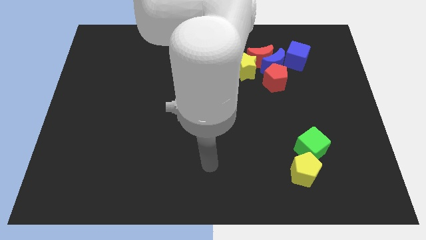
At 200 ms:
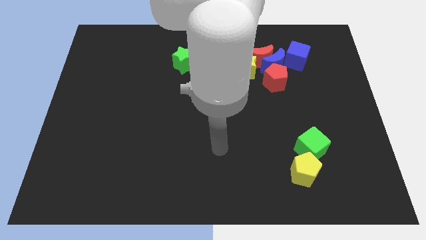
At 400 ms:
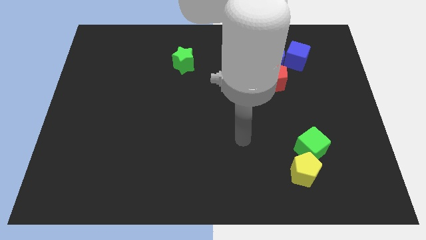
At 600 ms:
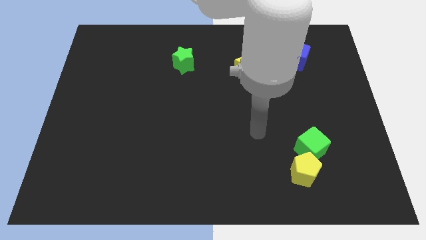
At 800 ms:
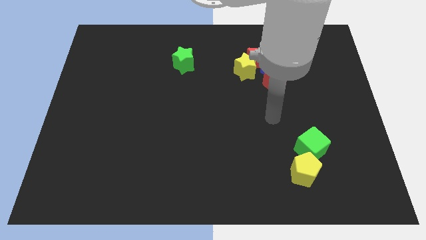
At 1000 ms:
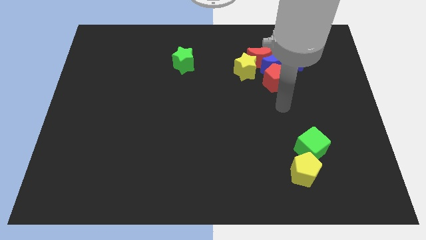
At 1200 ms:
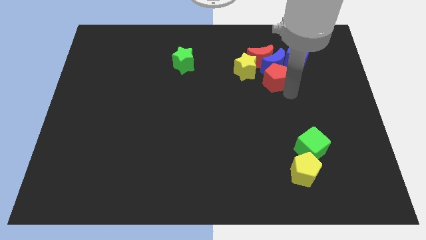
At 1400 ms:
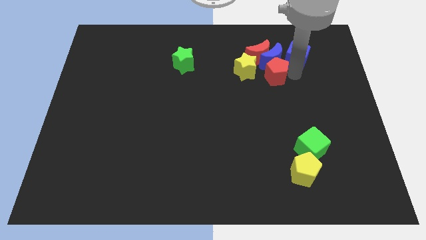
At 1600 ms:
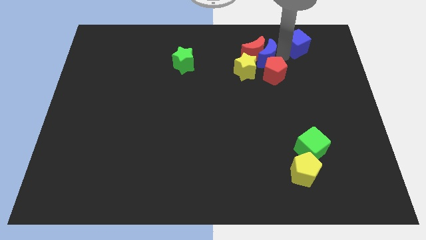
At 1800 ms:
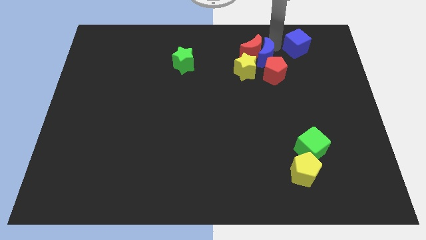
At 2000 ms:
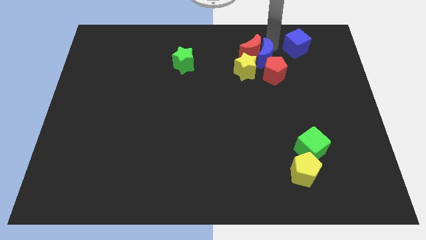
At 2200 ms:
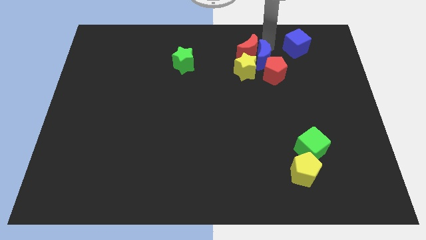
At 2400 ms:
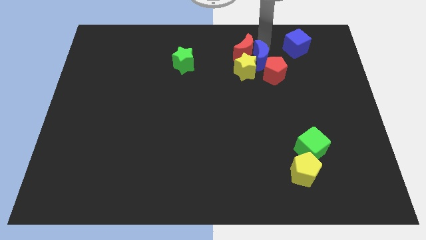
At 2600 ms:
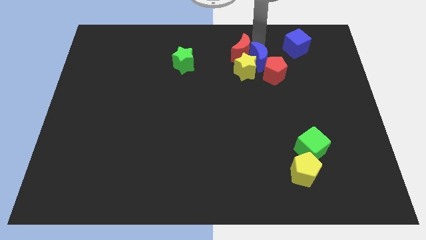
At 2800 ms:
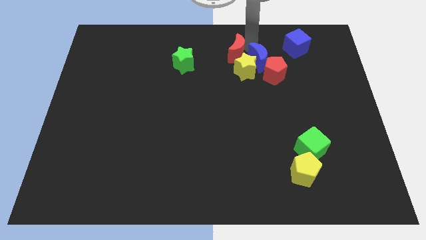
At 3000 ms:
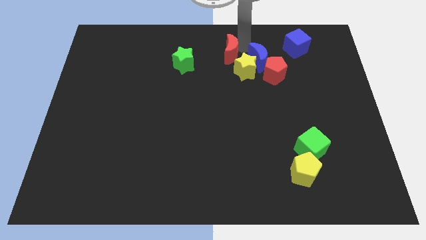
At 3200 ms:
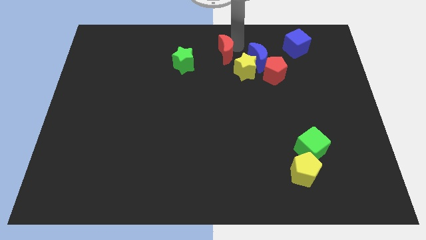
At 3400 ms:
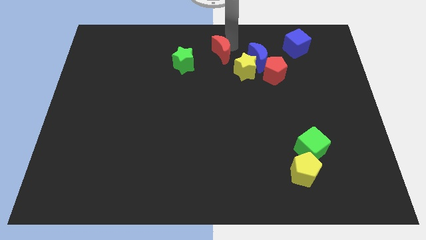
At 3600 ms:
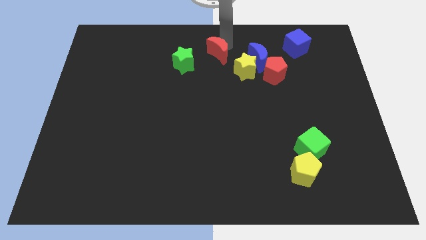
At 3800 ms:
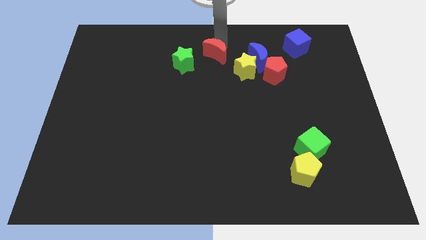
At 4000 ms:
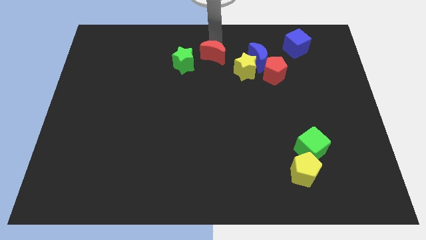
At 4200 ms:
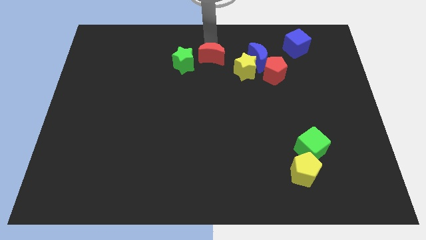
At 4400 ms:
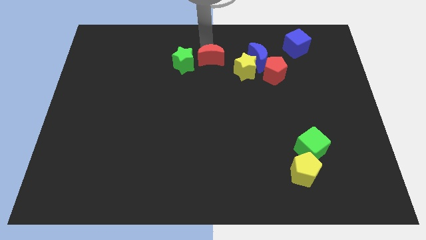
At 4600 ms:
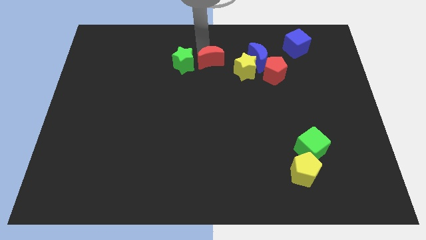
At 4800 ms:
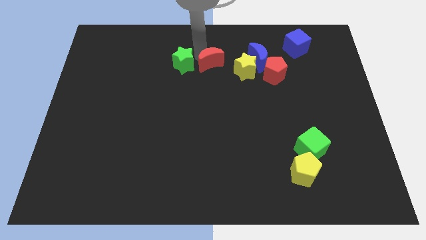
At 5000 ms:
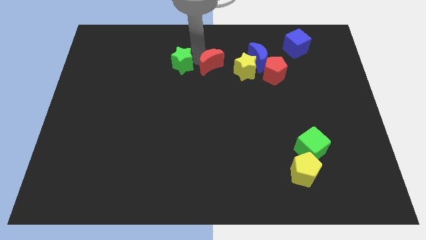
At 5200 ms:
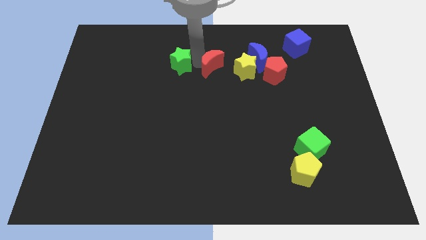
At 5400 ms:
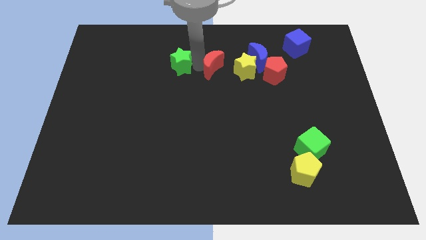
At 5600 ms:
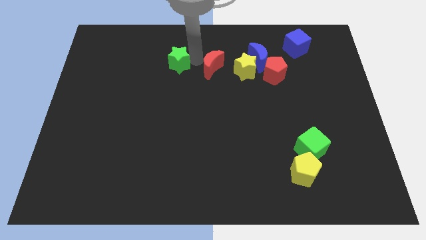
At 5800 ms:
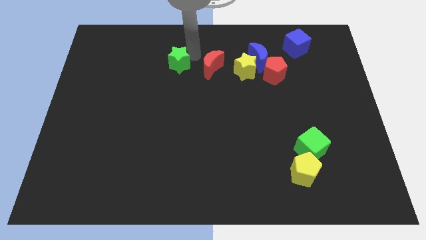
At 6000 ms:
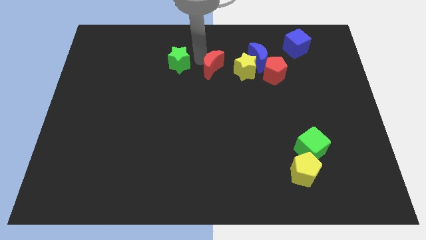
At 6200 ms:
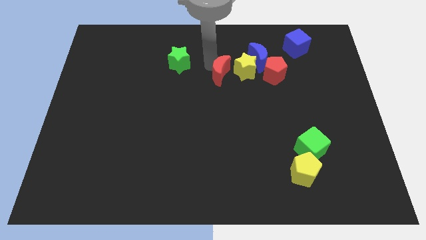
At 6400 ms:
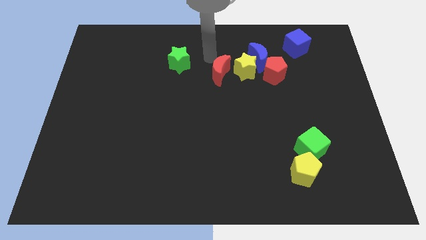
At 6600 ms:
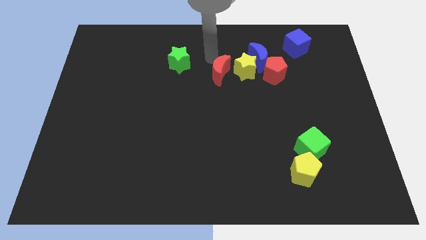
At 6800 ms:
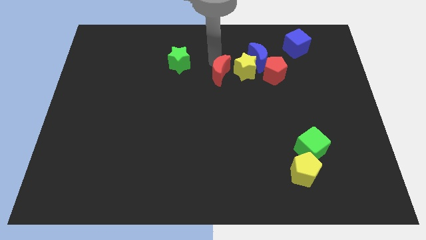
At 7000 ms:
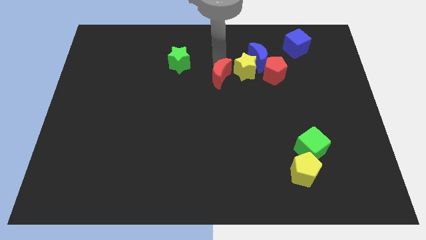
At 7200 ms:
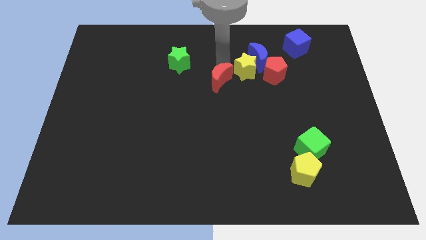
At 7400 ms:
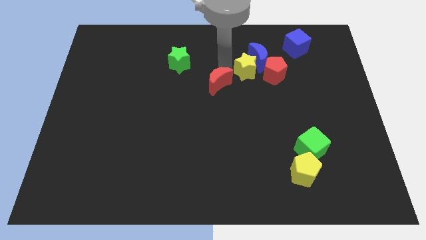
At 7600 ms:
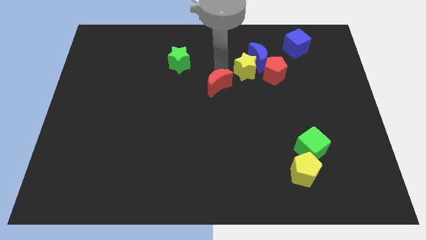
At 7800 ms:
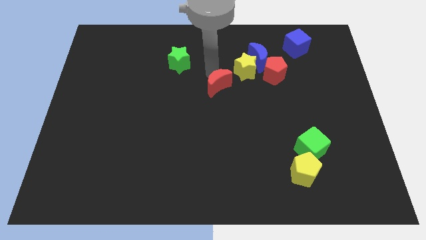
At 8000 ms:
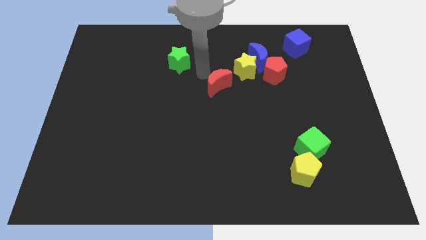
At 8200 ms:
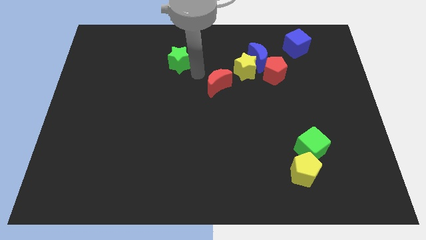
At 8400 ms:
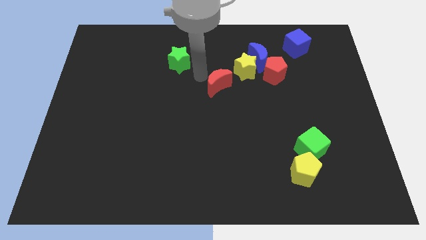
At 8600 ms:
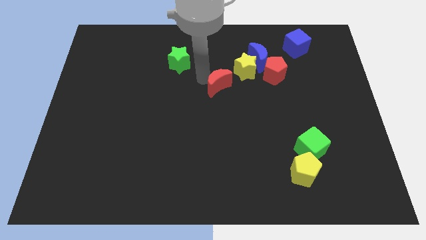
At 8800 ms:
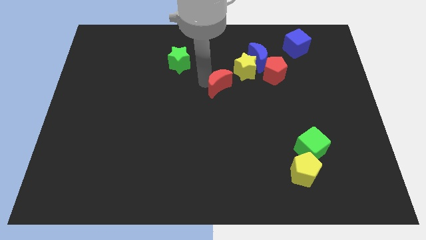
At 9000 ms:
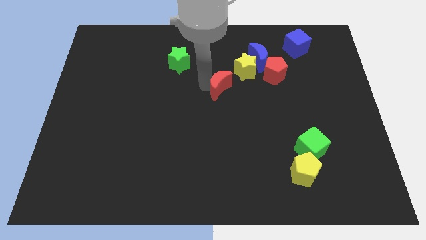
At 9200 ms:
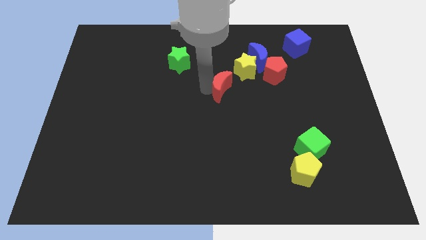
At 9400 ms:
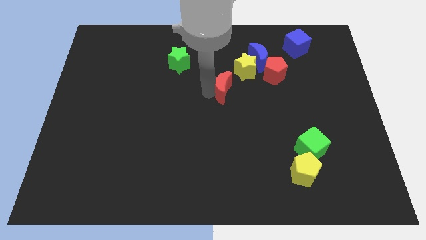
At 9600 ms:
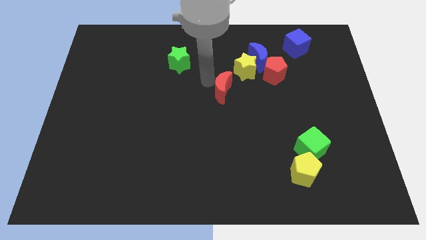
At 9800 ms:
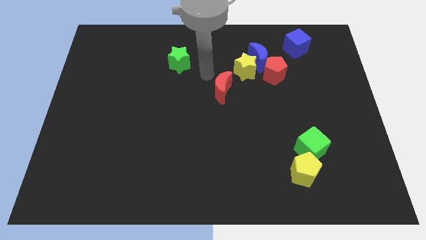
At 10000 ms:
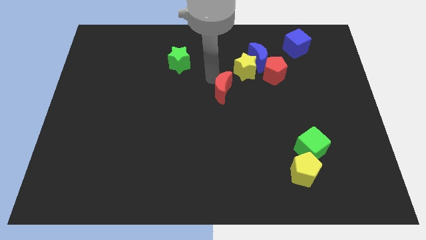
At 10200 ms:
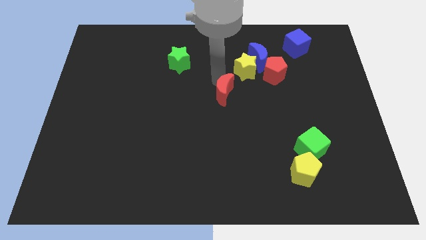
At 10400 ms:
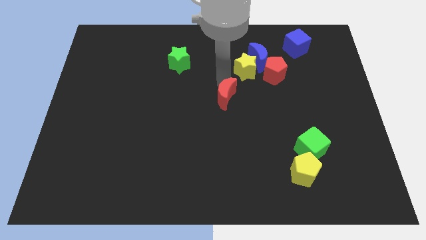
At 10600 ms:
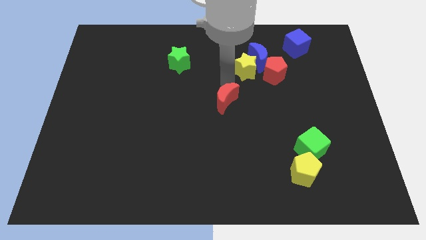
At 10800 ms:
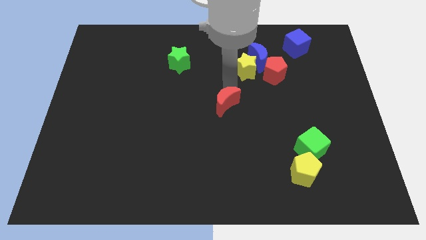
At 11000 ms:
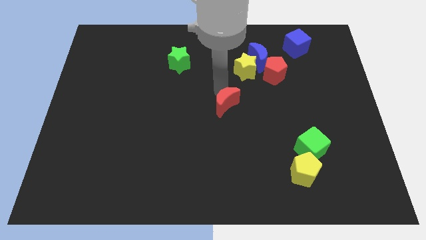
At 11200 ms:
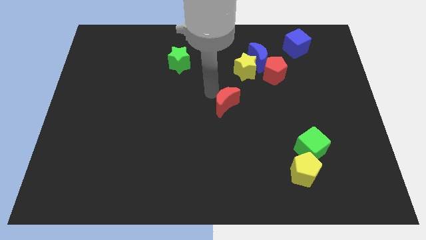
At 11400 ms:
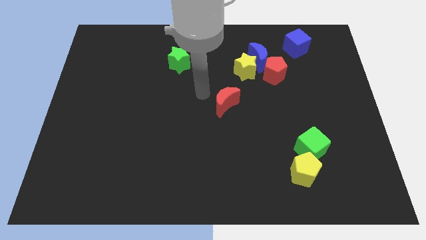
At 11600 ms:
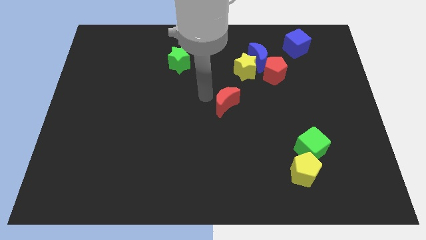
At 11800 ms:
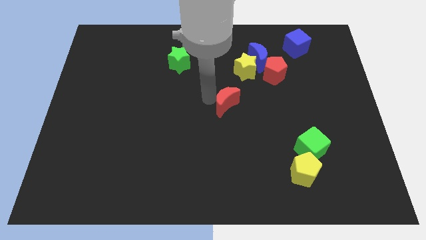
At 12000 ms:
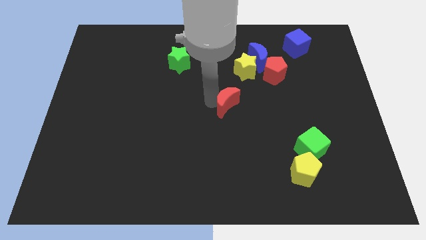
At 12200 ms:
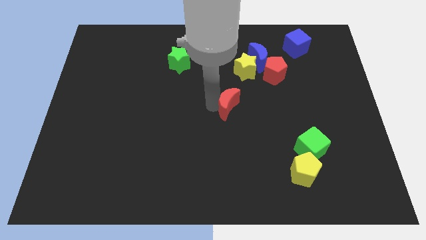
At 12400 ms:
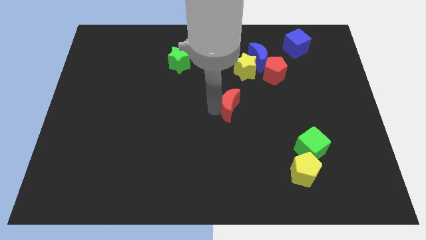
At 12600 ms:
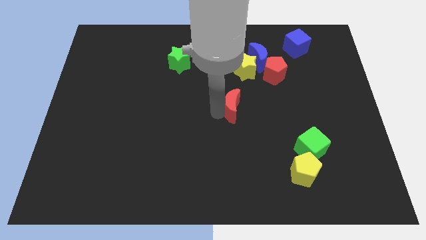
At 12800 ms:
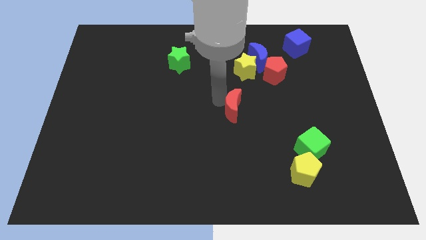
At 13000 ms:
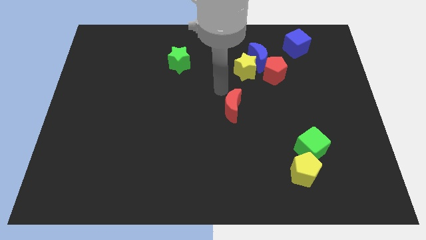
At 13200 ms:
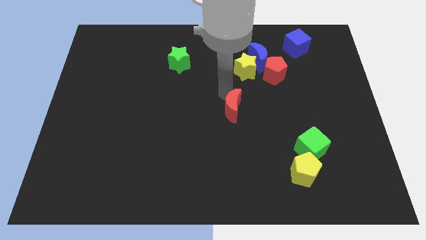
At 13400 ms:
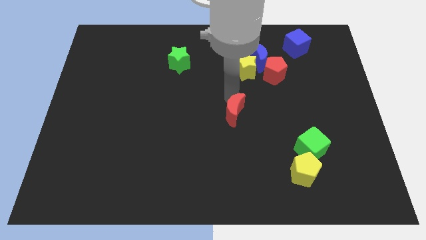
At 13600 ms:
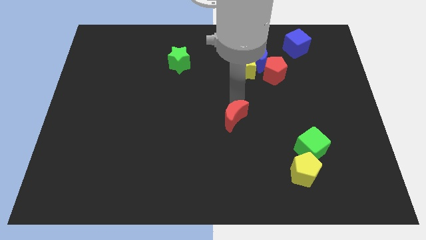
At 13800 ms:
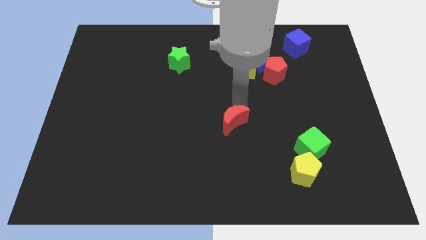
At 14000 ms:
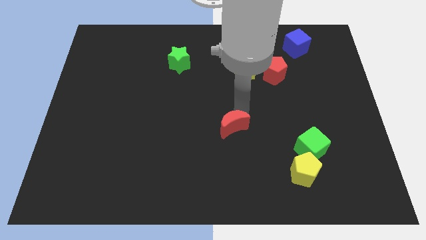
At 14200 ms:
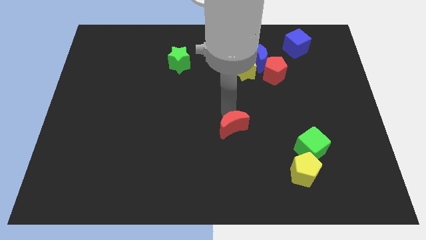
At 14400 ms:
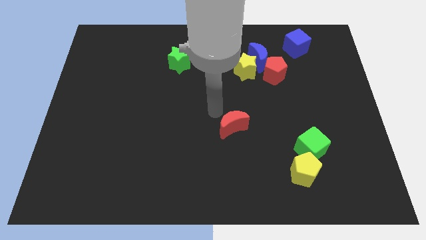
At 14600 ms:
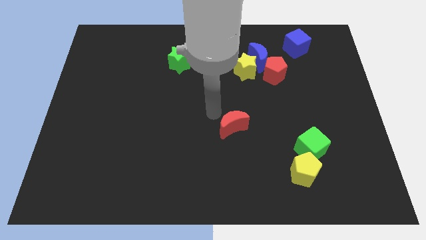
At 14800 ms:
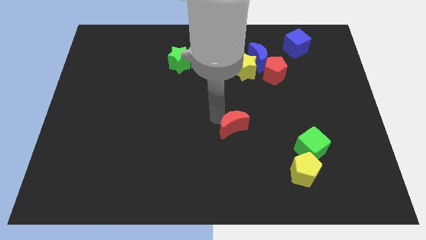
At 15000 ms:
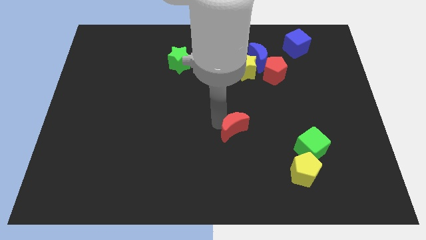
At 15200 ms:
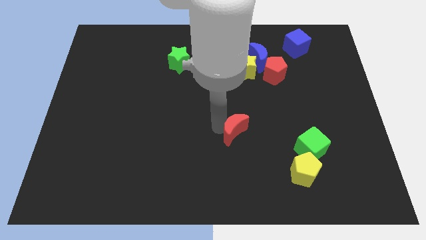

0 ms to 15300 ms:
push the red moon down

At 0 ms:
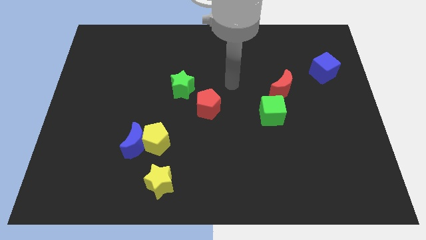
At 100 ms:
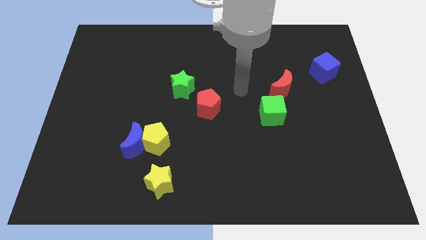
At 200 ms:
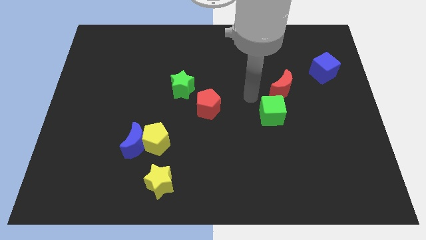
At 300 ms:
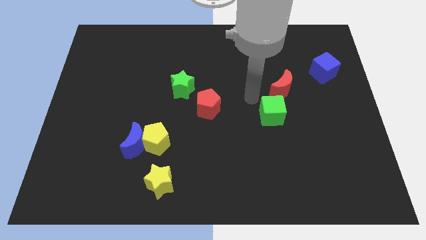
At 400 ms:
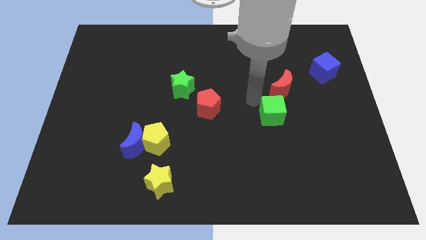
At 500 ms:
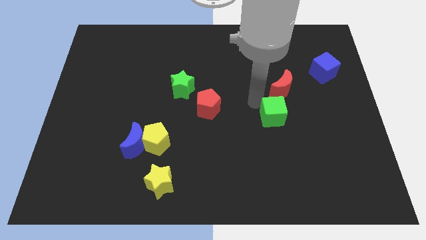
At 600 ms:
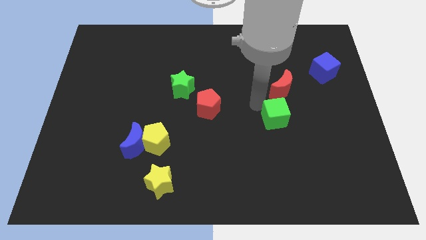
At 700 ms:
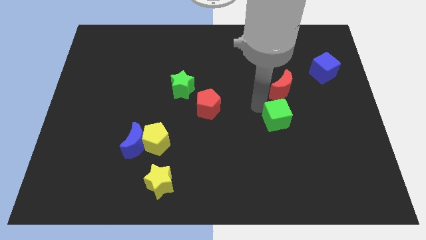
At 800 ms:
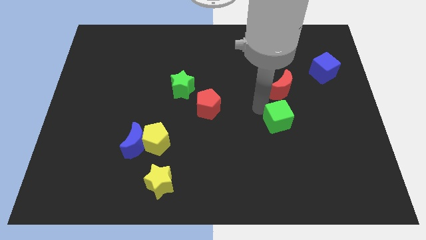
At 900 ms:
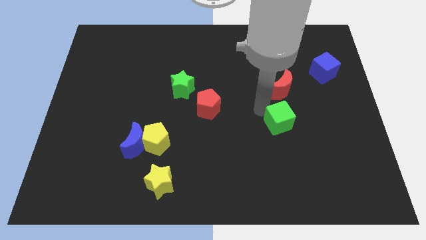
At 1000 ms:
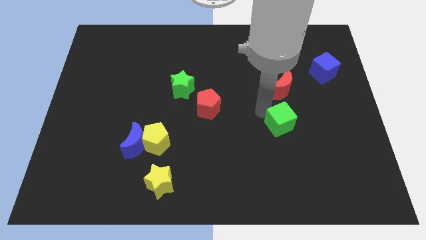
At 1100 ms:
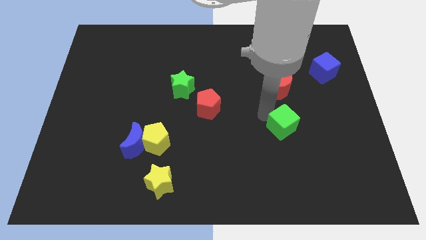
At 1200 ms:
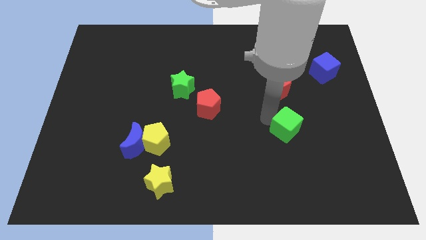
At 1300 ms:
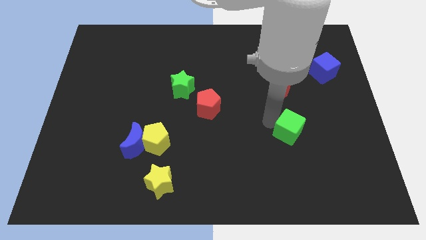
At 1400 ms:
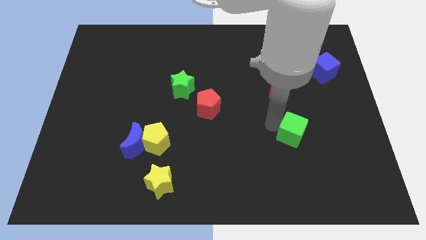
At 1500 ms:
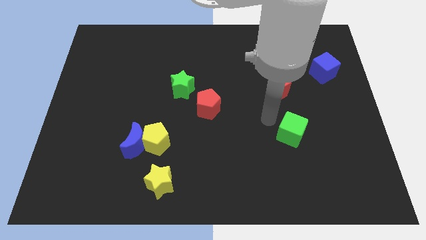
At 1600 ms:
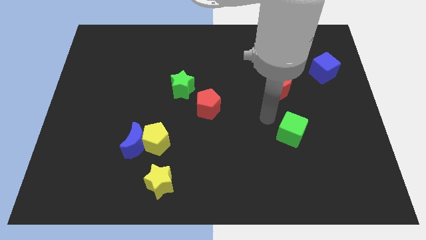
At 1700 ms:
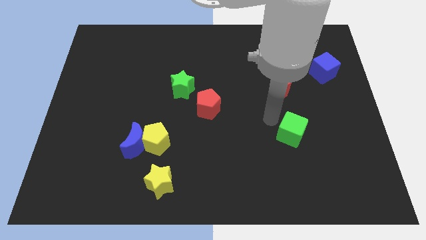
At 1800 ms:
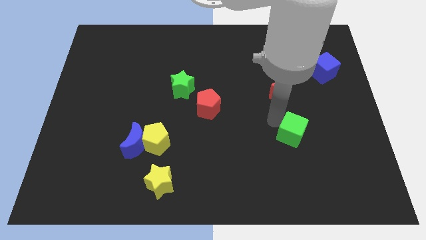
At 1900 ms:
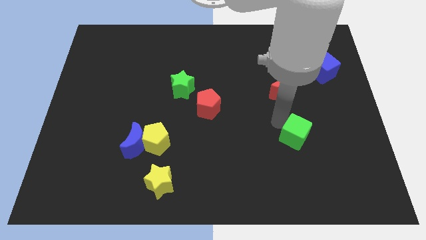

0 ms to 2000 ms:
push the green cube somewhat downwards and to the right
